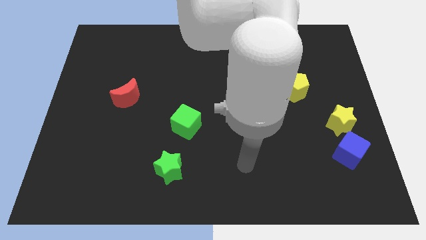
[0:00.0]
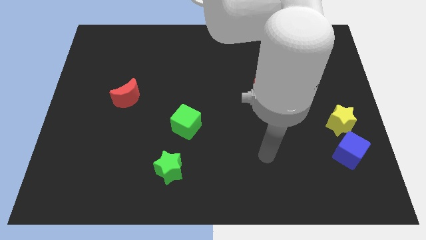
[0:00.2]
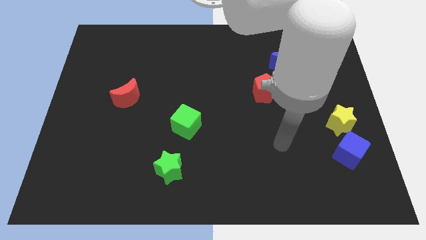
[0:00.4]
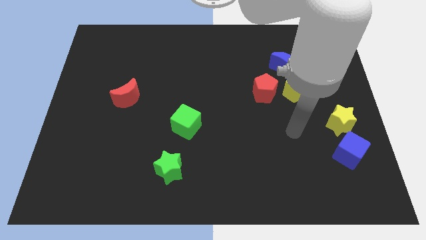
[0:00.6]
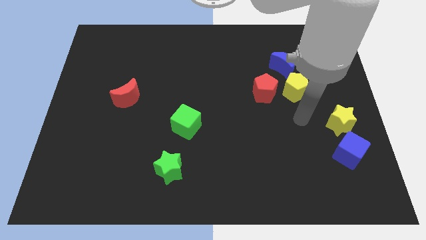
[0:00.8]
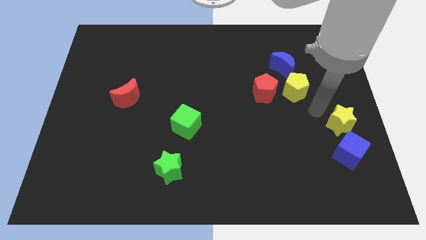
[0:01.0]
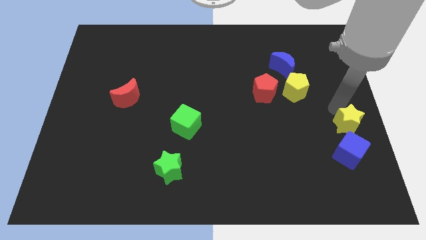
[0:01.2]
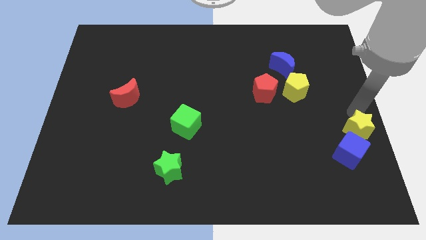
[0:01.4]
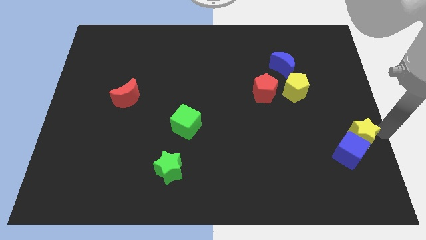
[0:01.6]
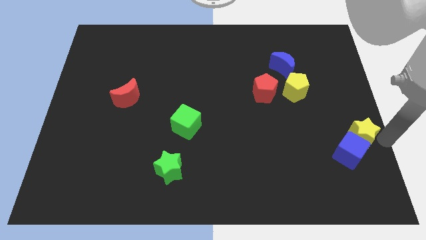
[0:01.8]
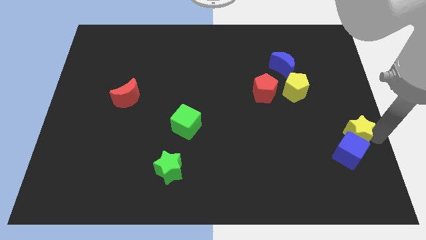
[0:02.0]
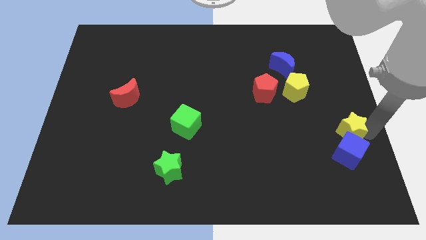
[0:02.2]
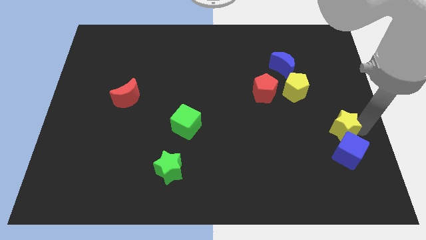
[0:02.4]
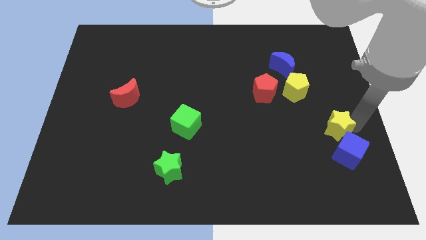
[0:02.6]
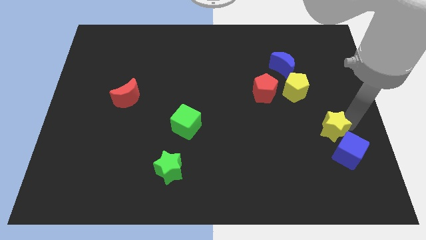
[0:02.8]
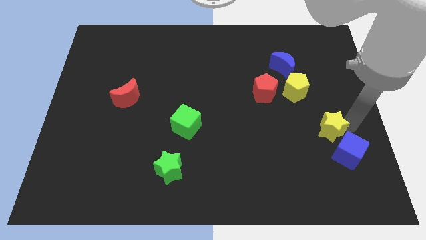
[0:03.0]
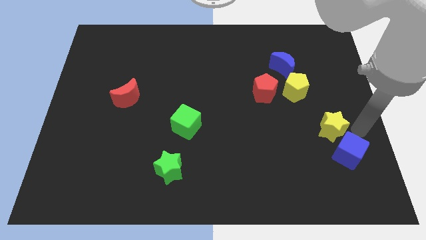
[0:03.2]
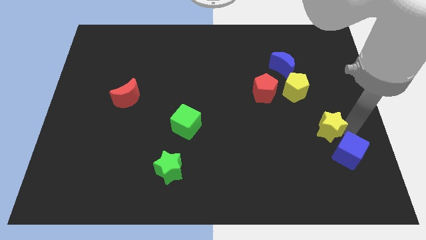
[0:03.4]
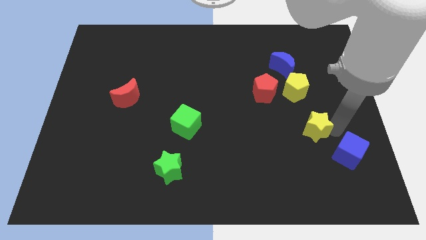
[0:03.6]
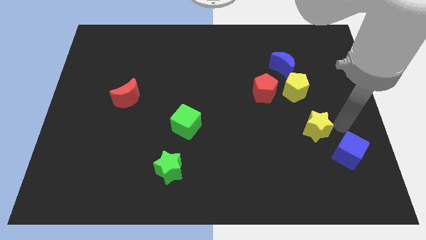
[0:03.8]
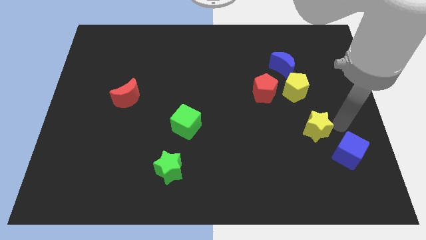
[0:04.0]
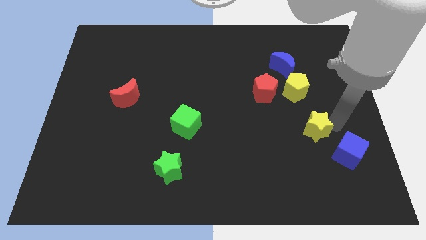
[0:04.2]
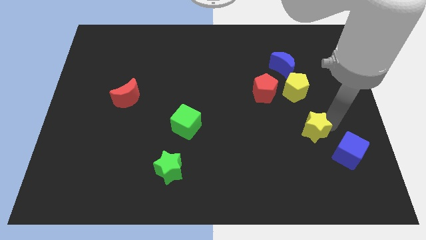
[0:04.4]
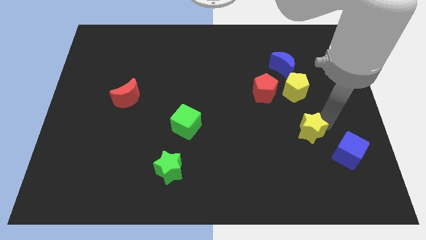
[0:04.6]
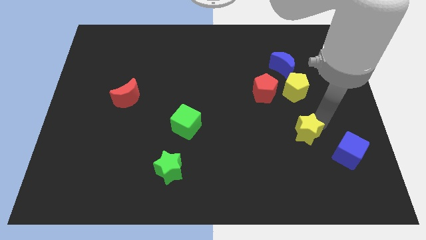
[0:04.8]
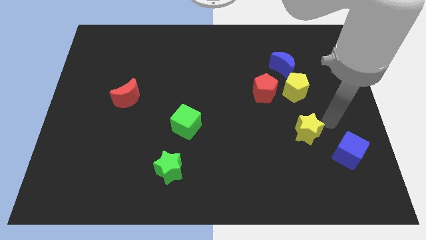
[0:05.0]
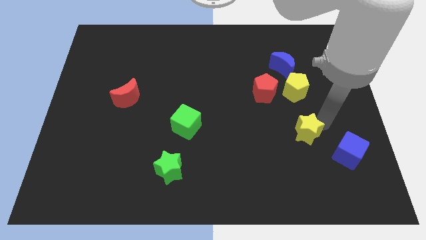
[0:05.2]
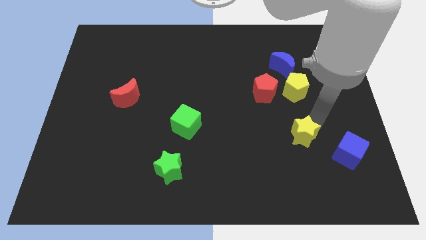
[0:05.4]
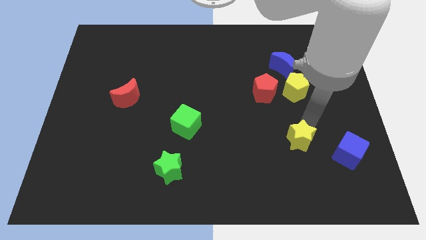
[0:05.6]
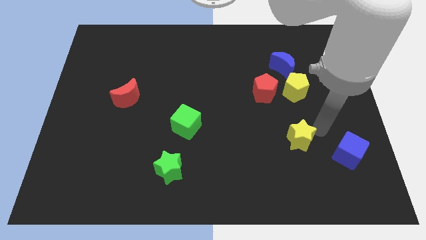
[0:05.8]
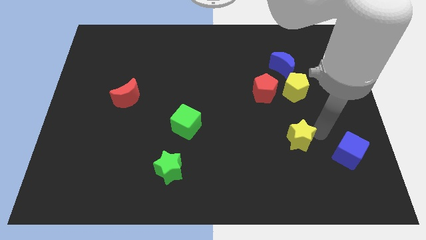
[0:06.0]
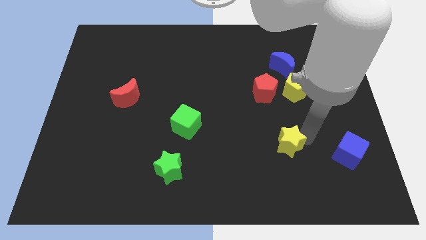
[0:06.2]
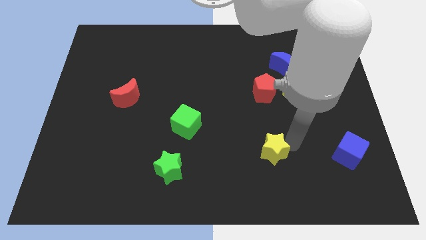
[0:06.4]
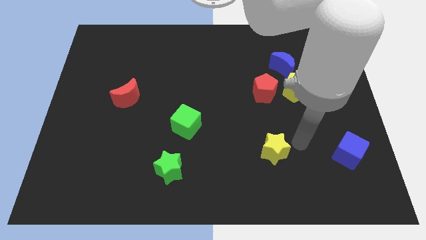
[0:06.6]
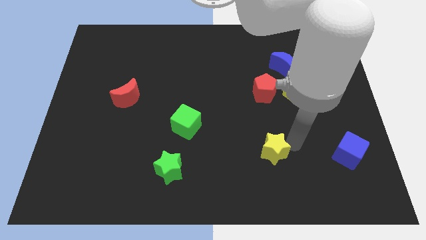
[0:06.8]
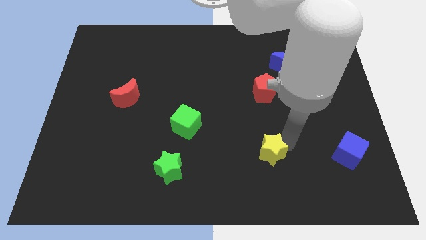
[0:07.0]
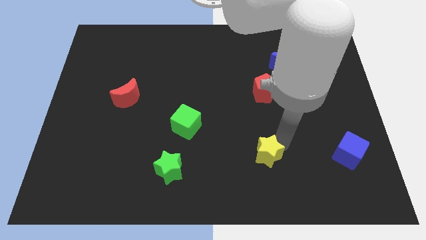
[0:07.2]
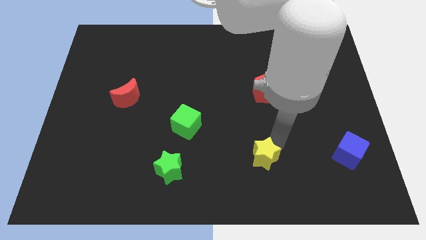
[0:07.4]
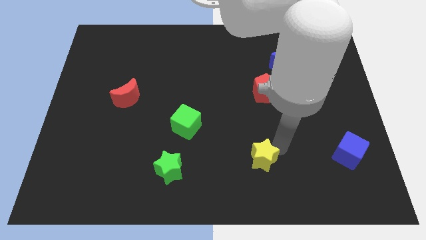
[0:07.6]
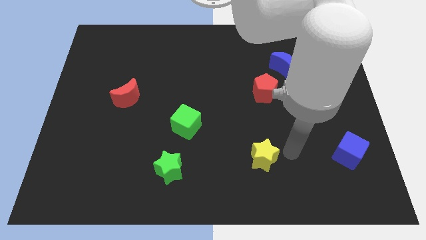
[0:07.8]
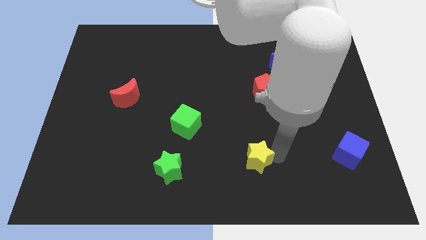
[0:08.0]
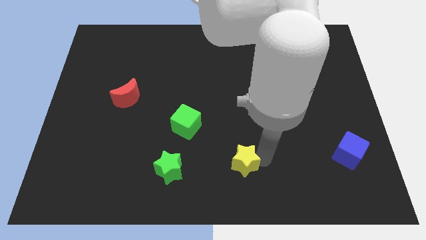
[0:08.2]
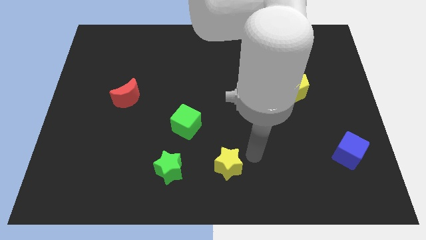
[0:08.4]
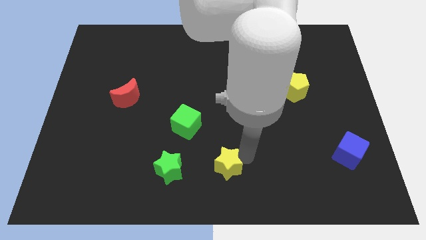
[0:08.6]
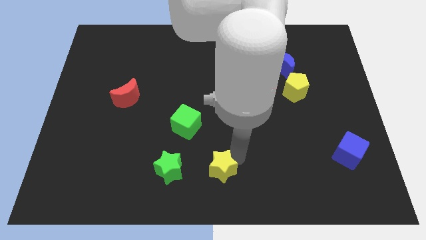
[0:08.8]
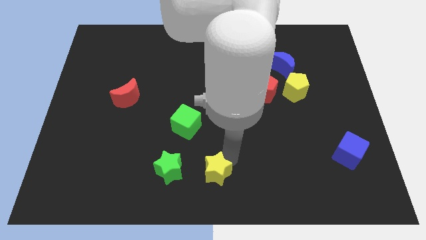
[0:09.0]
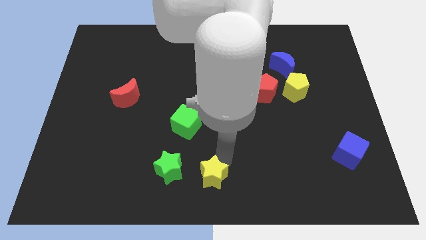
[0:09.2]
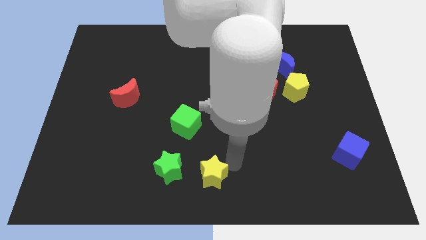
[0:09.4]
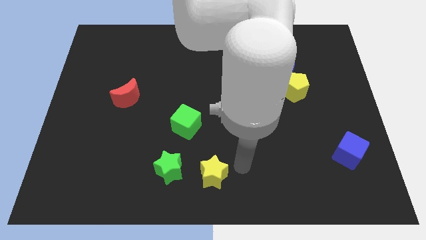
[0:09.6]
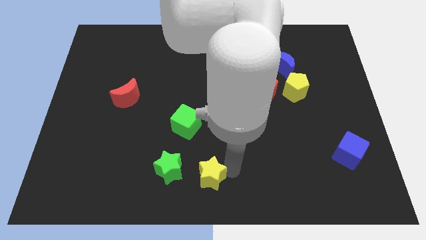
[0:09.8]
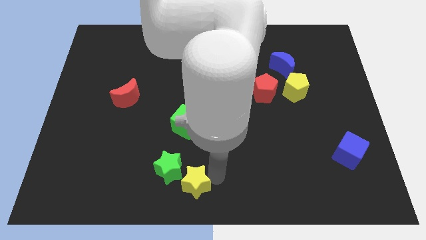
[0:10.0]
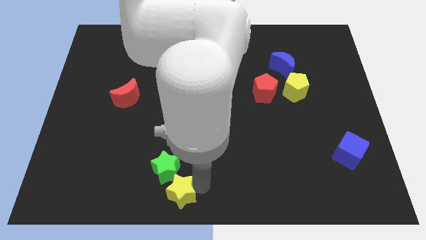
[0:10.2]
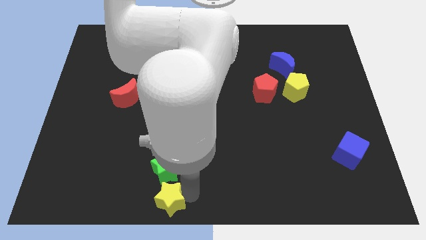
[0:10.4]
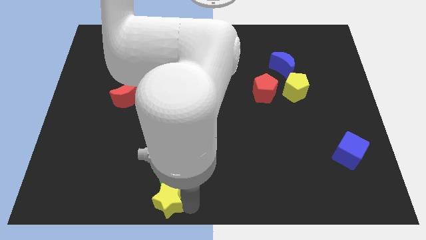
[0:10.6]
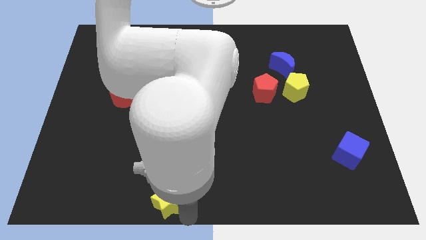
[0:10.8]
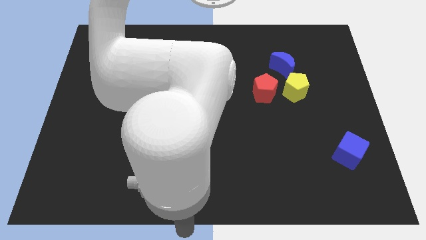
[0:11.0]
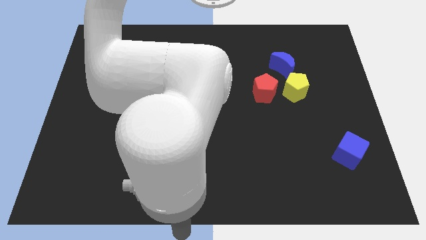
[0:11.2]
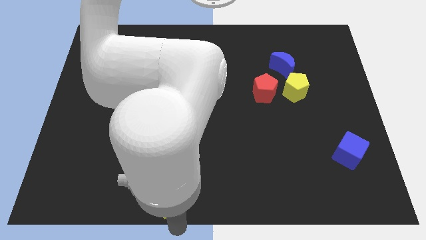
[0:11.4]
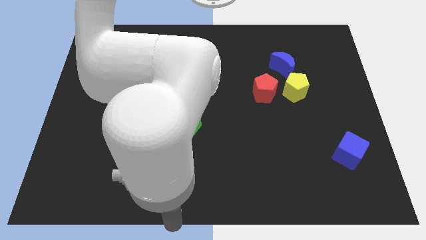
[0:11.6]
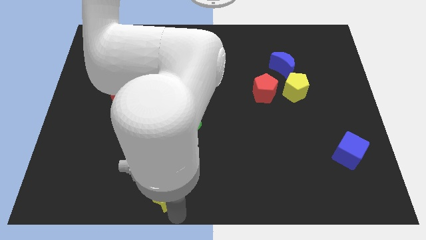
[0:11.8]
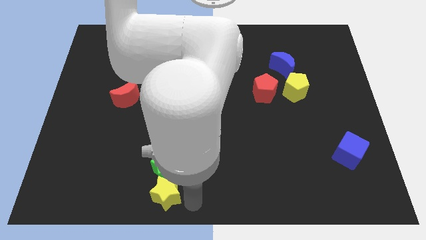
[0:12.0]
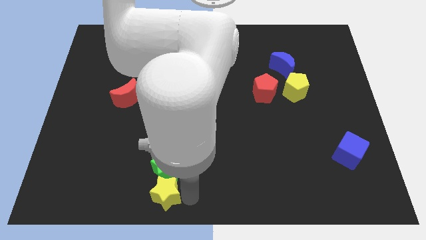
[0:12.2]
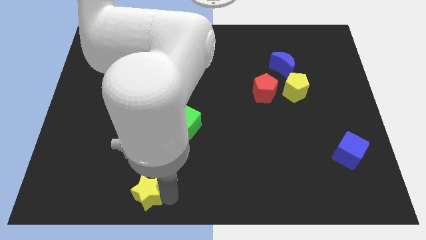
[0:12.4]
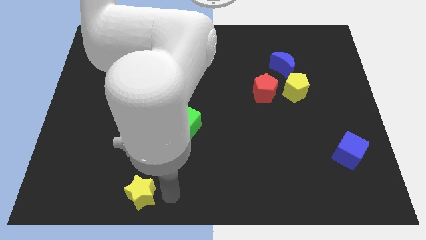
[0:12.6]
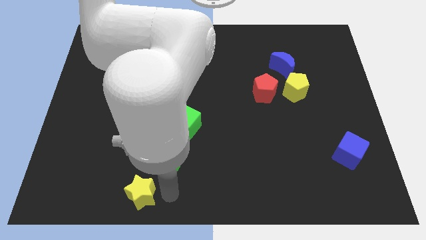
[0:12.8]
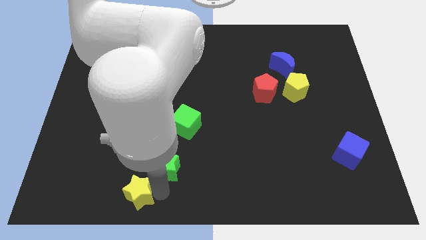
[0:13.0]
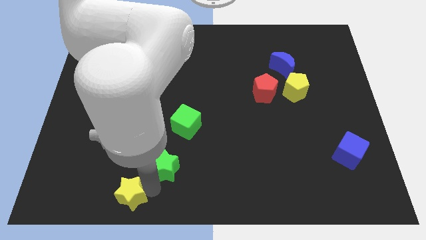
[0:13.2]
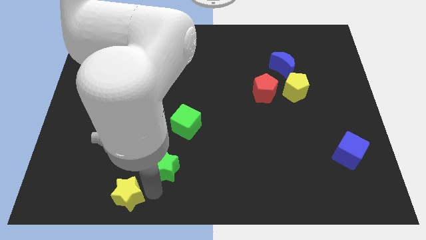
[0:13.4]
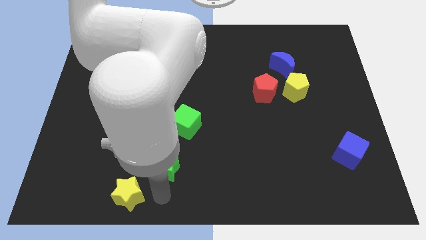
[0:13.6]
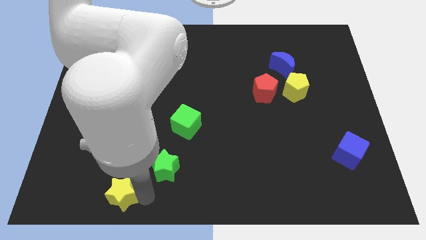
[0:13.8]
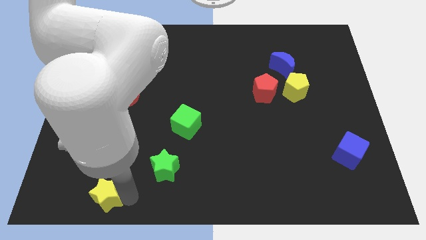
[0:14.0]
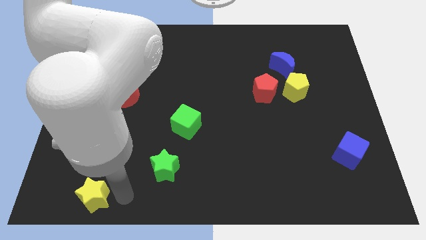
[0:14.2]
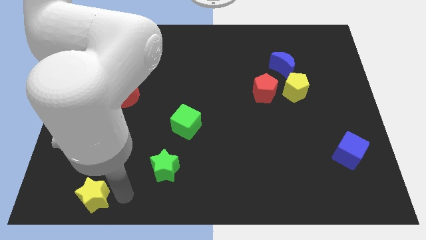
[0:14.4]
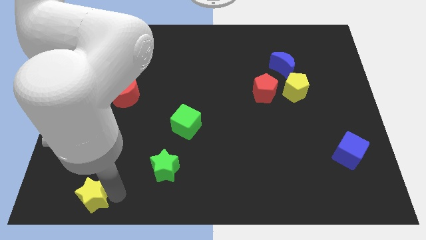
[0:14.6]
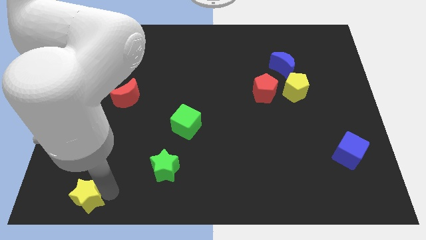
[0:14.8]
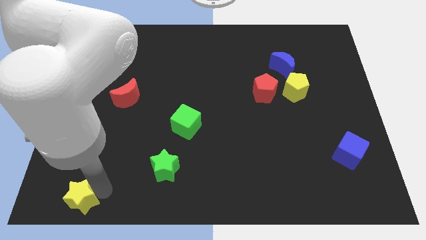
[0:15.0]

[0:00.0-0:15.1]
move the yellow star to the bottom left of the board
